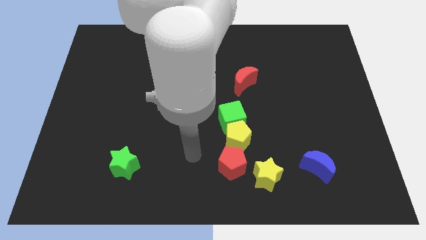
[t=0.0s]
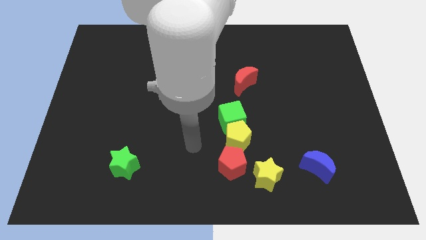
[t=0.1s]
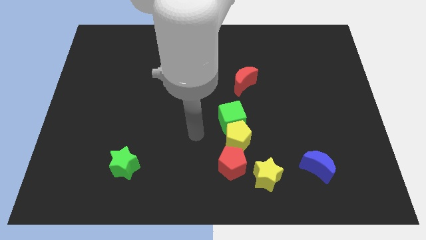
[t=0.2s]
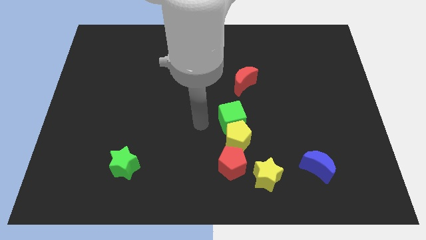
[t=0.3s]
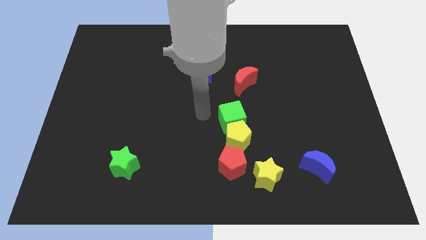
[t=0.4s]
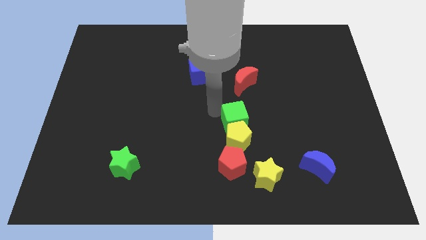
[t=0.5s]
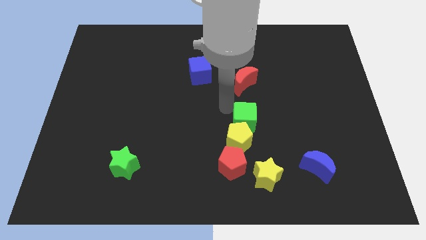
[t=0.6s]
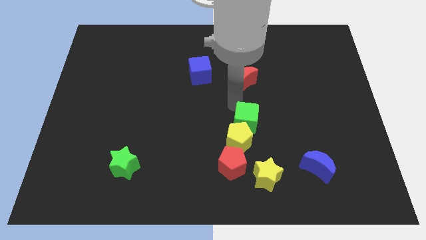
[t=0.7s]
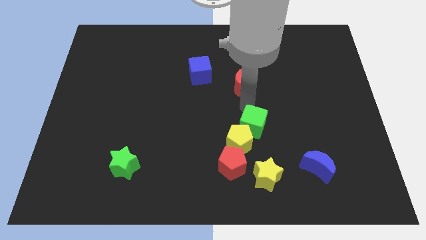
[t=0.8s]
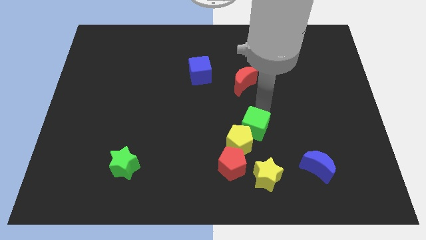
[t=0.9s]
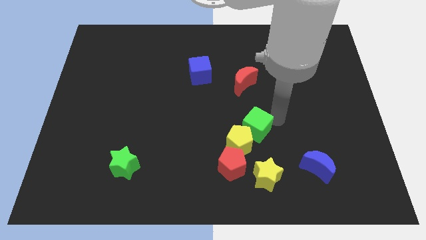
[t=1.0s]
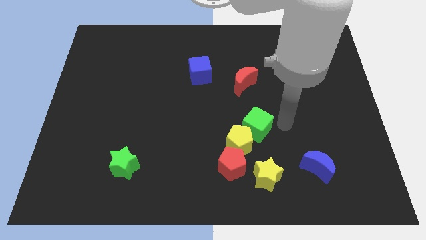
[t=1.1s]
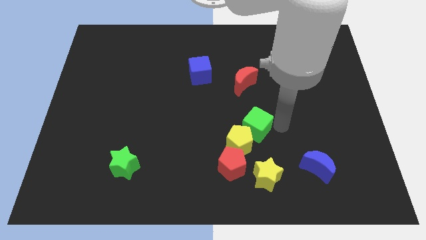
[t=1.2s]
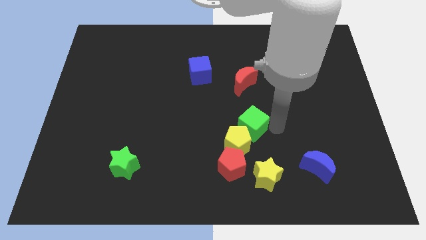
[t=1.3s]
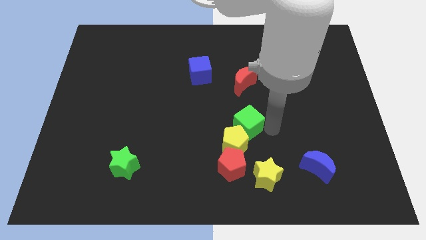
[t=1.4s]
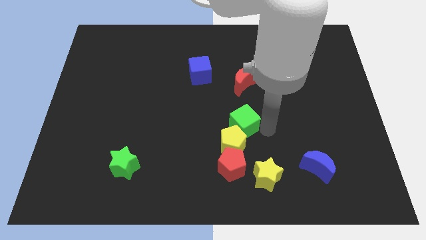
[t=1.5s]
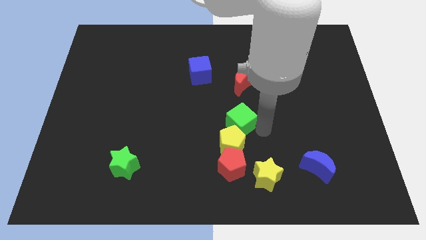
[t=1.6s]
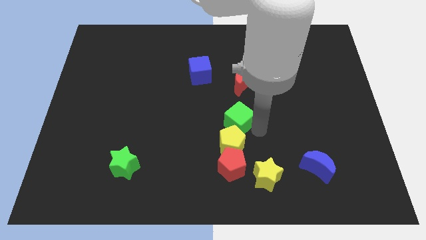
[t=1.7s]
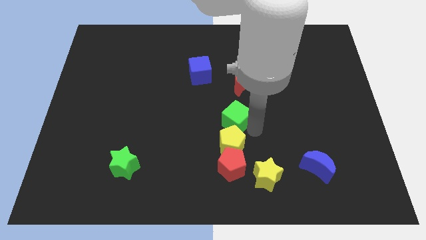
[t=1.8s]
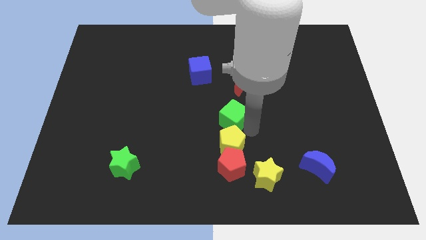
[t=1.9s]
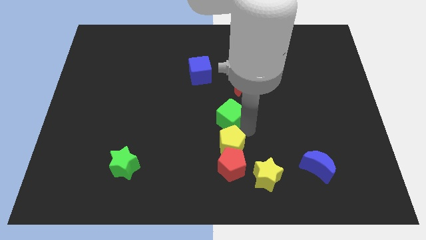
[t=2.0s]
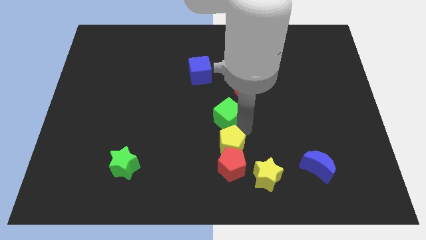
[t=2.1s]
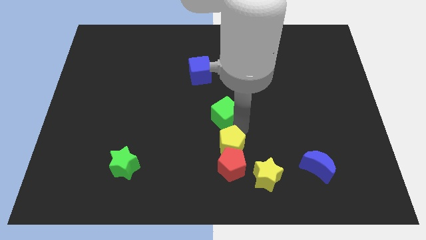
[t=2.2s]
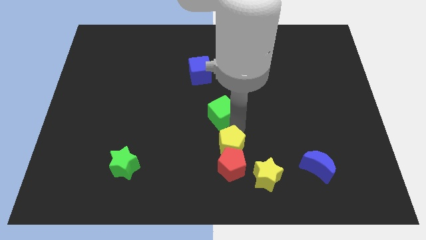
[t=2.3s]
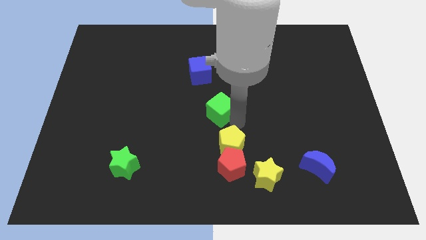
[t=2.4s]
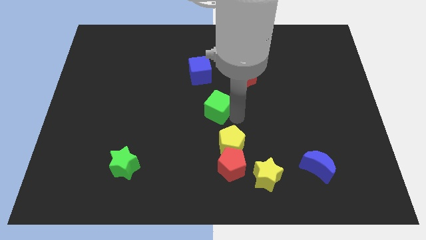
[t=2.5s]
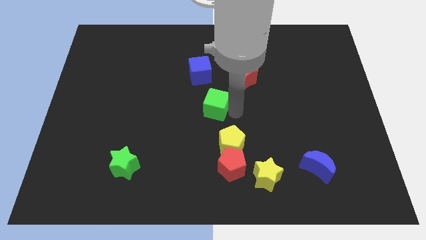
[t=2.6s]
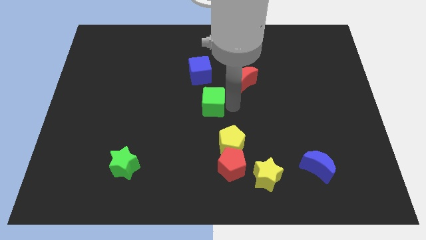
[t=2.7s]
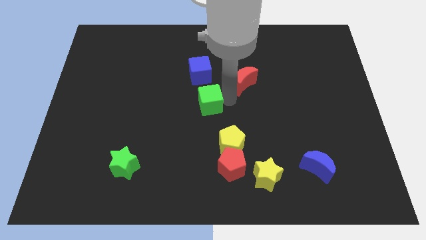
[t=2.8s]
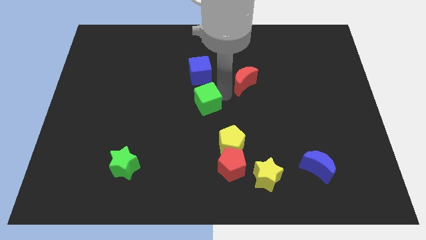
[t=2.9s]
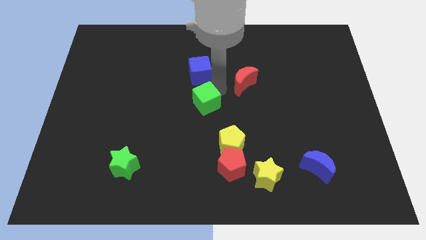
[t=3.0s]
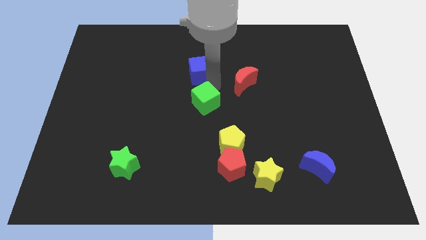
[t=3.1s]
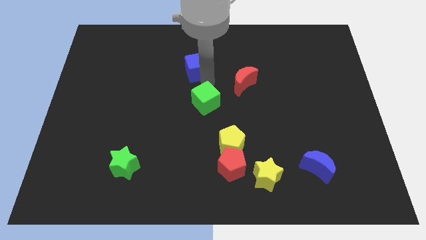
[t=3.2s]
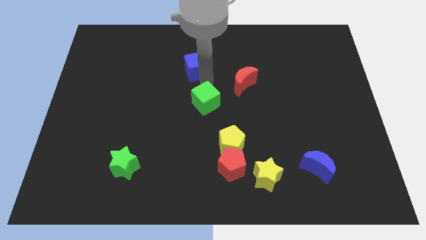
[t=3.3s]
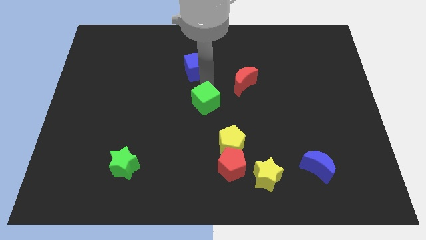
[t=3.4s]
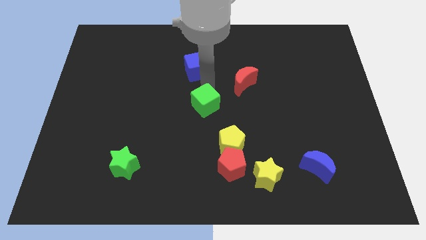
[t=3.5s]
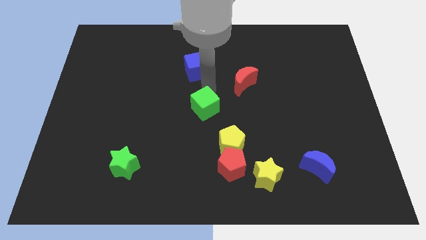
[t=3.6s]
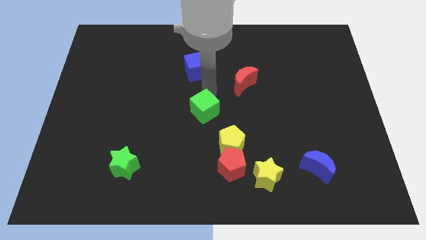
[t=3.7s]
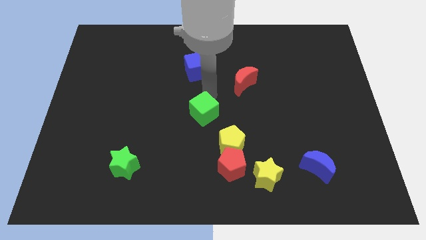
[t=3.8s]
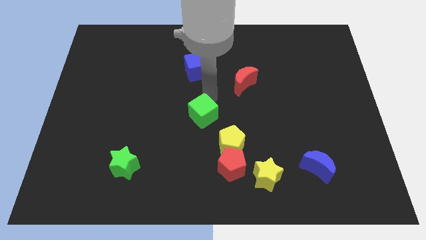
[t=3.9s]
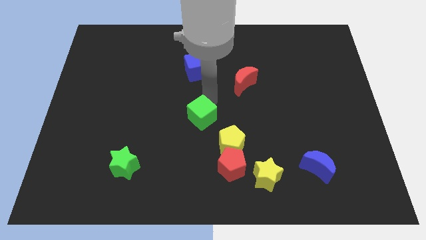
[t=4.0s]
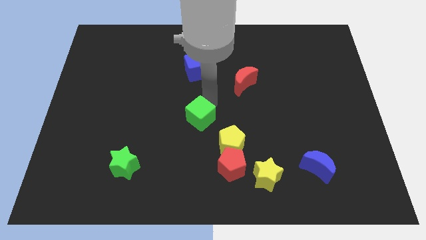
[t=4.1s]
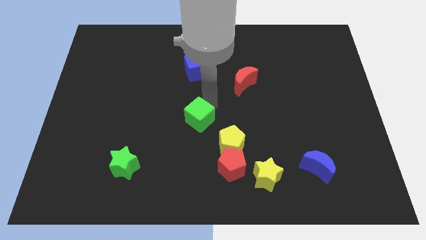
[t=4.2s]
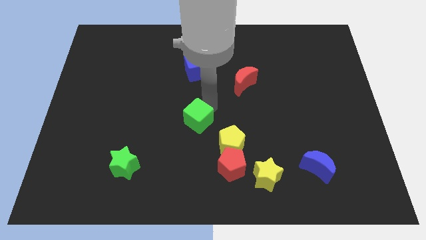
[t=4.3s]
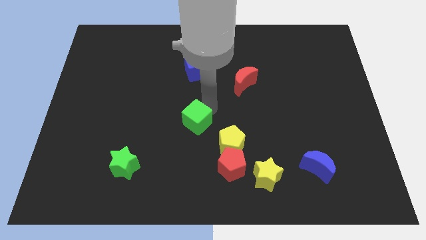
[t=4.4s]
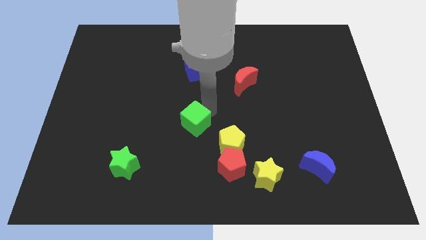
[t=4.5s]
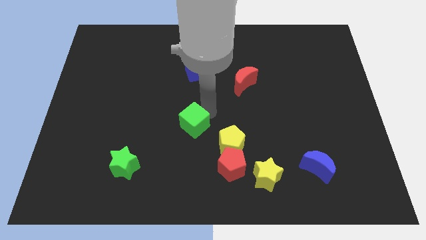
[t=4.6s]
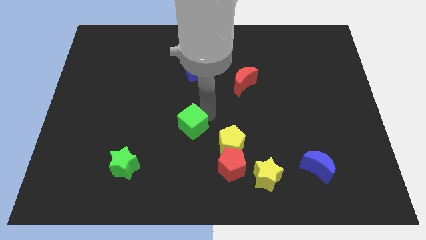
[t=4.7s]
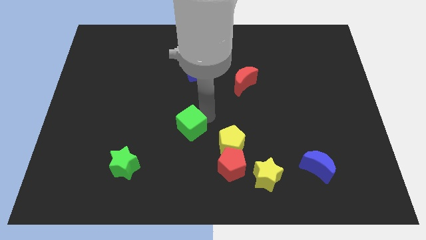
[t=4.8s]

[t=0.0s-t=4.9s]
slide the green cube left of the yellow pentagon

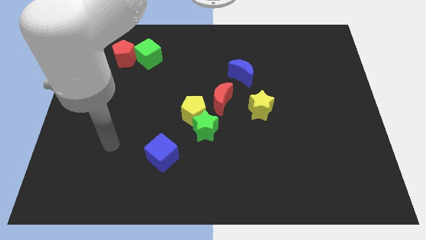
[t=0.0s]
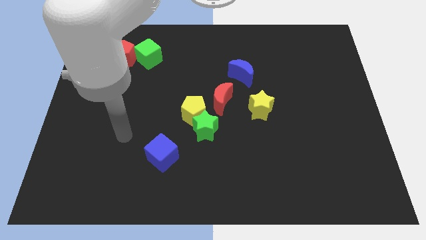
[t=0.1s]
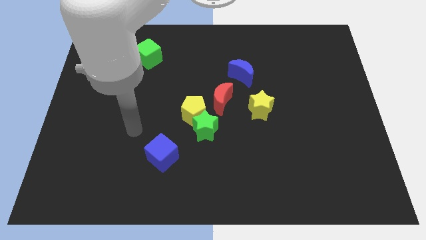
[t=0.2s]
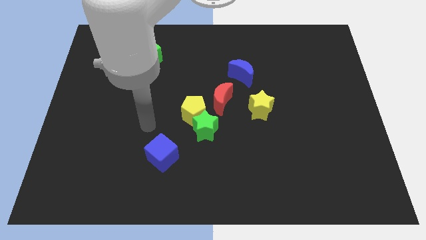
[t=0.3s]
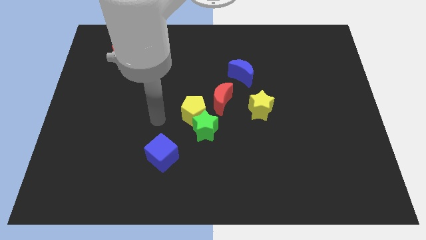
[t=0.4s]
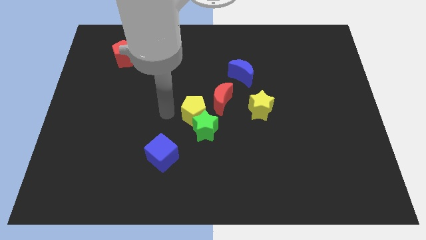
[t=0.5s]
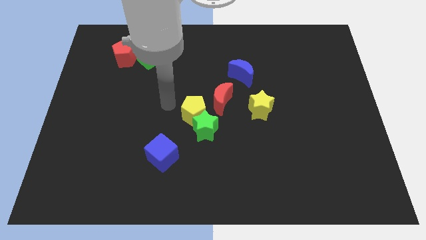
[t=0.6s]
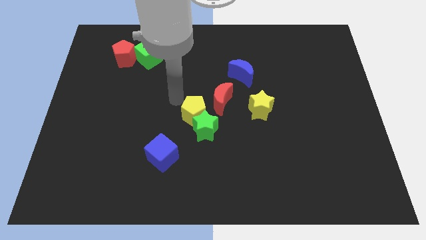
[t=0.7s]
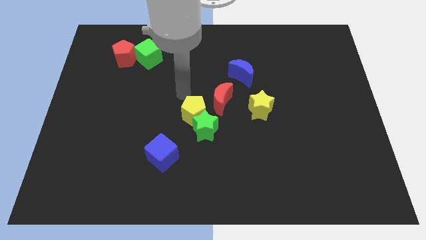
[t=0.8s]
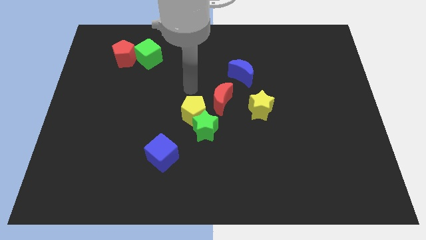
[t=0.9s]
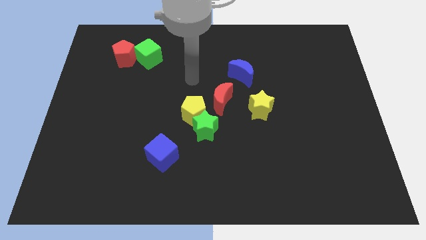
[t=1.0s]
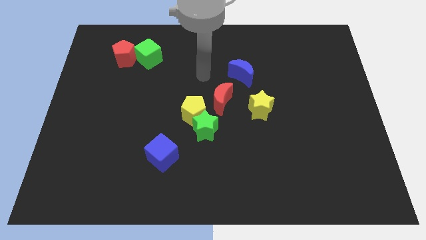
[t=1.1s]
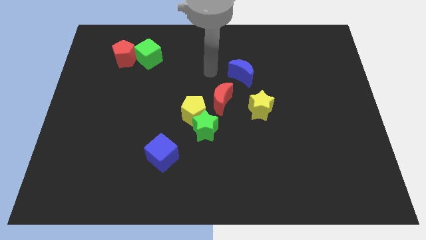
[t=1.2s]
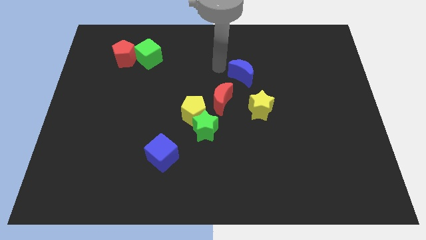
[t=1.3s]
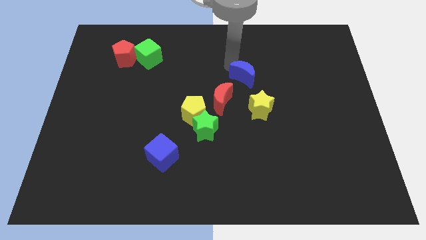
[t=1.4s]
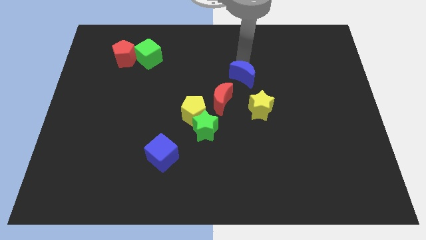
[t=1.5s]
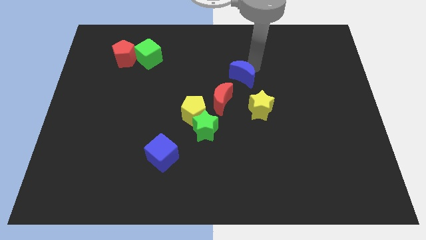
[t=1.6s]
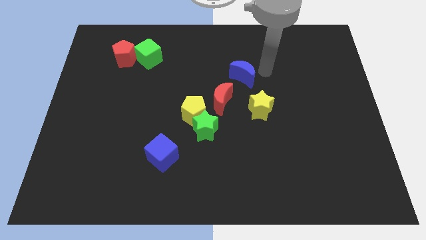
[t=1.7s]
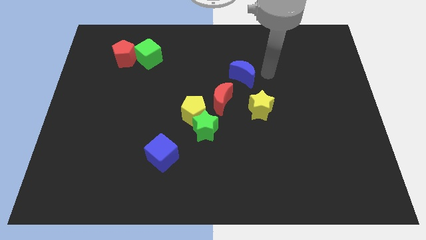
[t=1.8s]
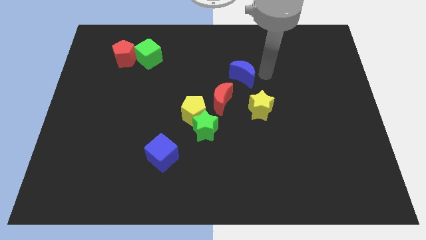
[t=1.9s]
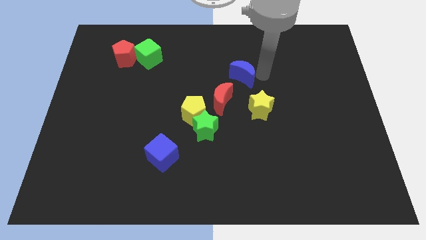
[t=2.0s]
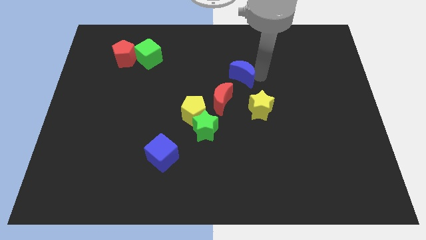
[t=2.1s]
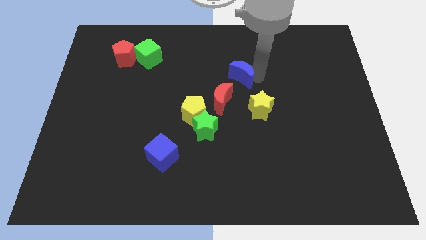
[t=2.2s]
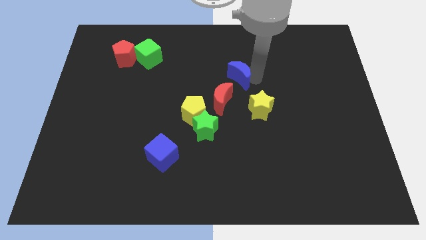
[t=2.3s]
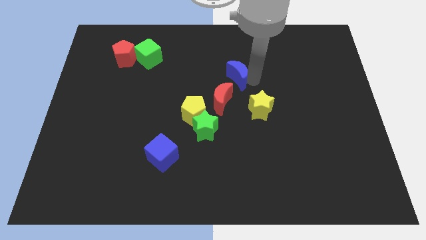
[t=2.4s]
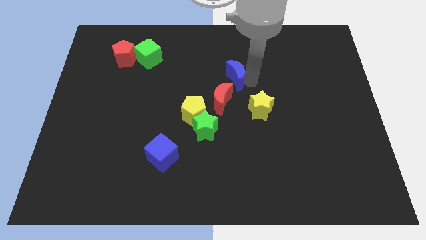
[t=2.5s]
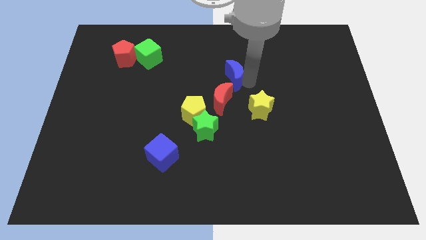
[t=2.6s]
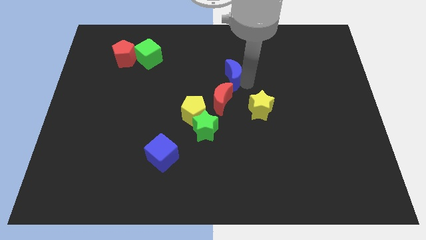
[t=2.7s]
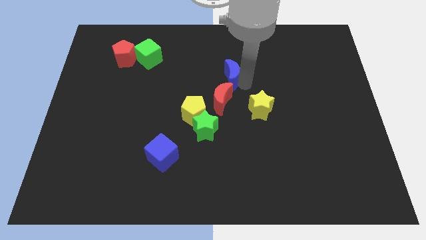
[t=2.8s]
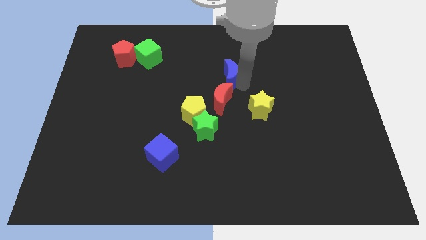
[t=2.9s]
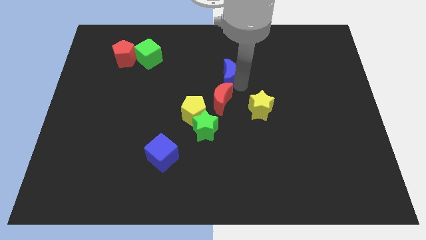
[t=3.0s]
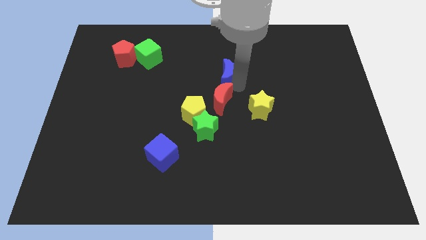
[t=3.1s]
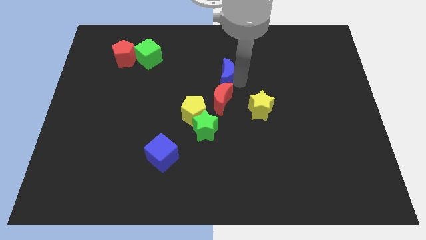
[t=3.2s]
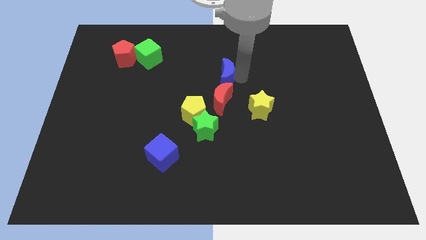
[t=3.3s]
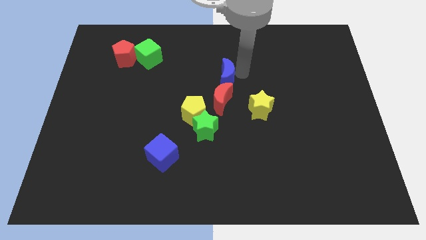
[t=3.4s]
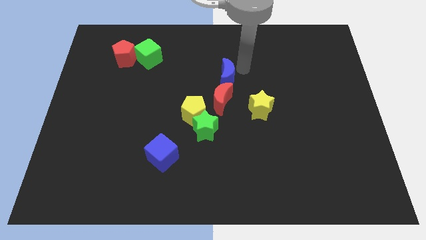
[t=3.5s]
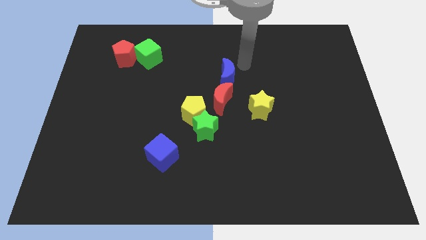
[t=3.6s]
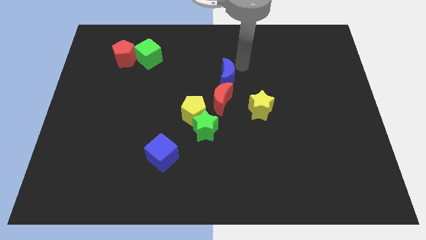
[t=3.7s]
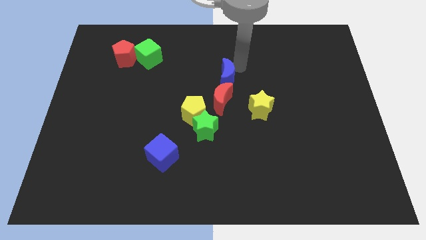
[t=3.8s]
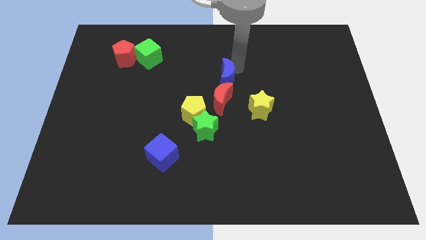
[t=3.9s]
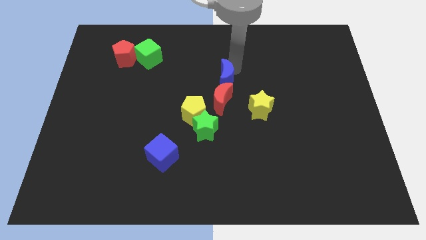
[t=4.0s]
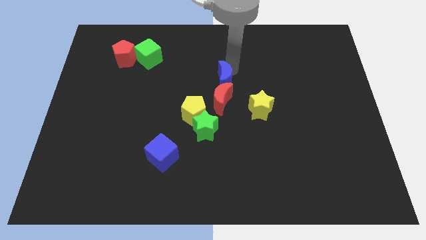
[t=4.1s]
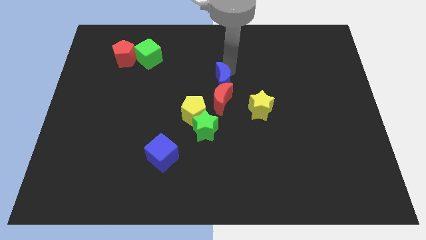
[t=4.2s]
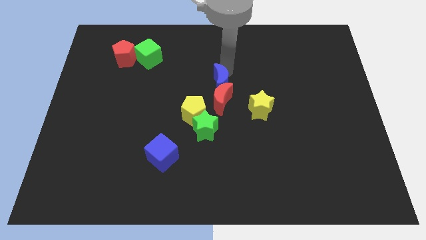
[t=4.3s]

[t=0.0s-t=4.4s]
move the blue moon to the top side of the green star
